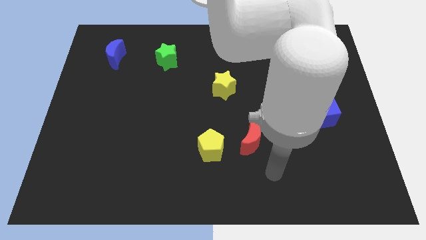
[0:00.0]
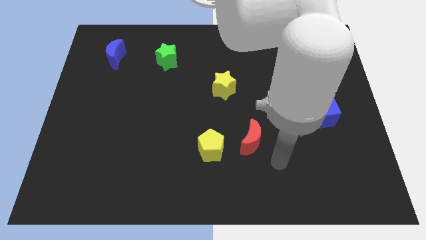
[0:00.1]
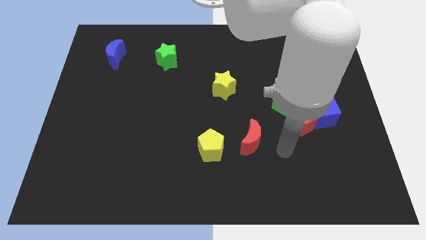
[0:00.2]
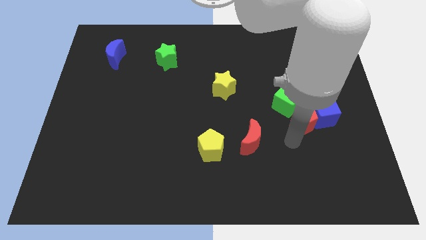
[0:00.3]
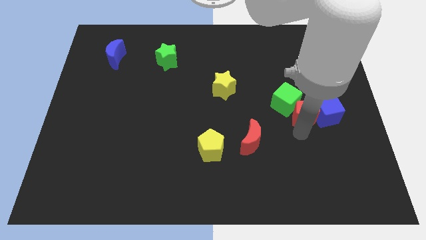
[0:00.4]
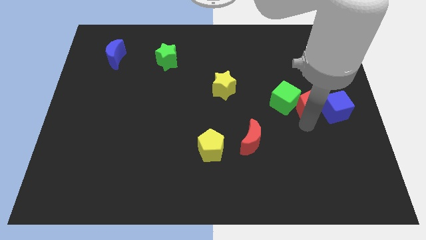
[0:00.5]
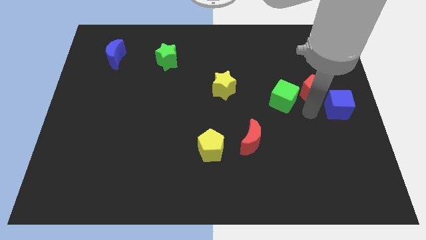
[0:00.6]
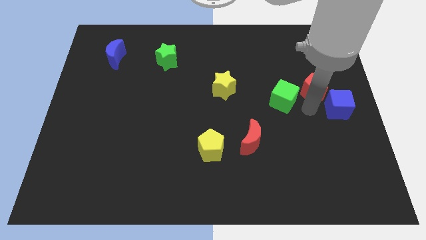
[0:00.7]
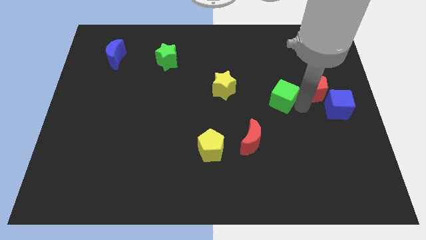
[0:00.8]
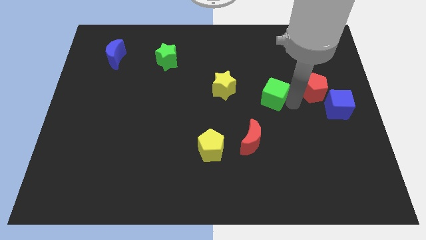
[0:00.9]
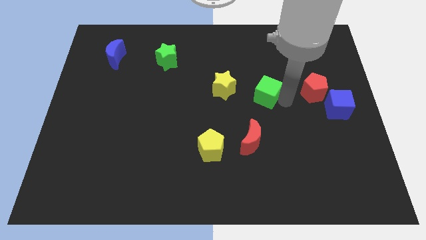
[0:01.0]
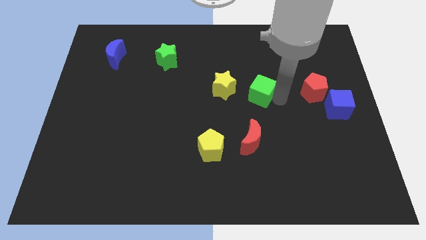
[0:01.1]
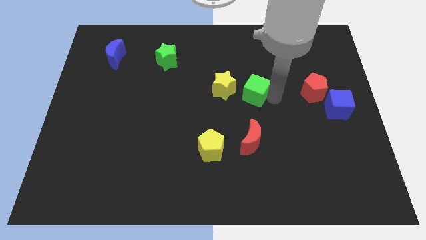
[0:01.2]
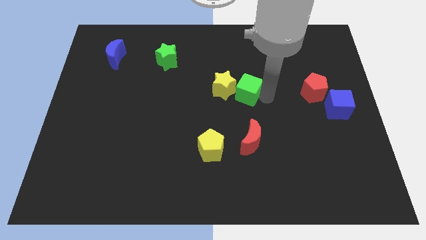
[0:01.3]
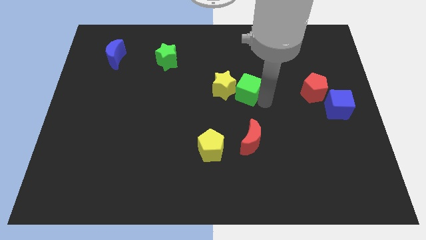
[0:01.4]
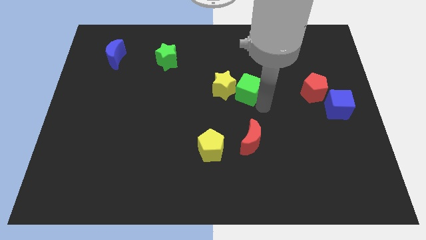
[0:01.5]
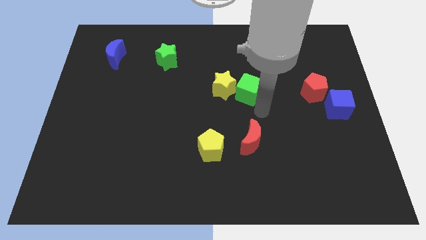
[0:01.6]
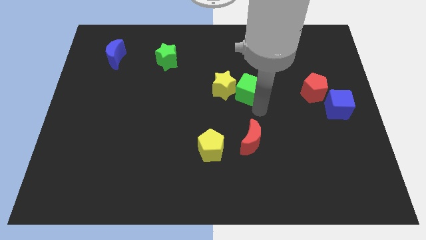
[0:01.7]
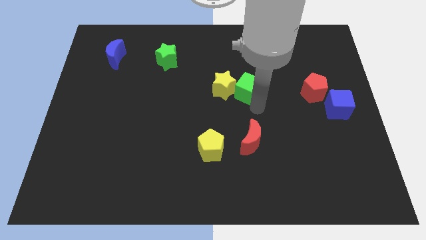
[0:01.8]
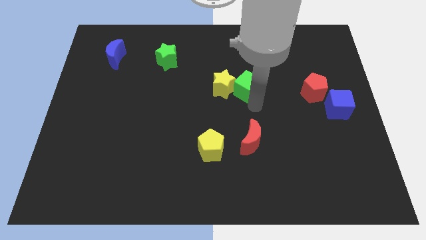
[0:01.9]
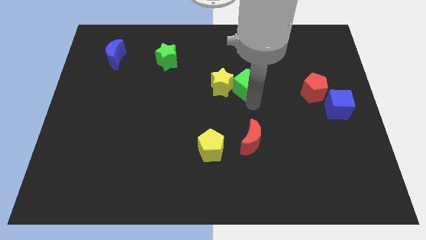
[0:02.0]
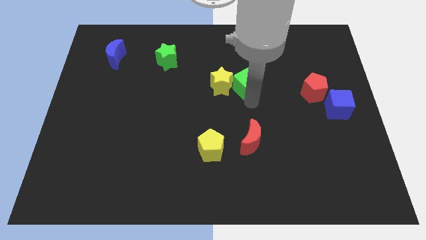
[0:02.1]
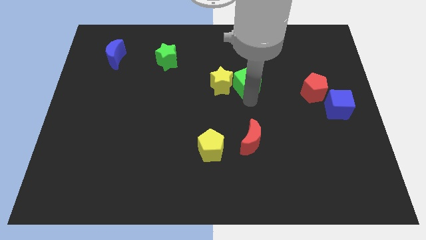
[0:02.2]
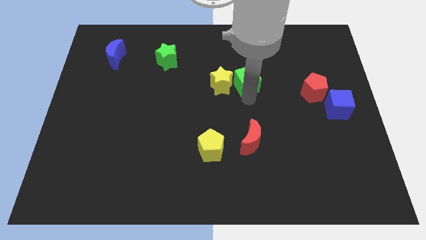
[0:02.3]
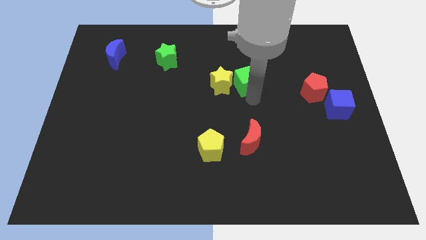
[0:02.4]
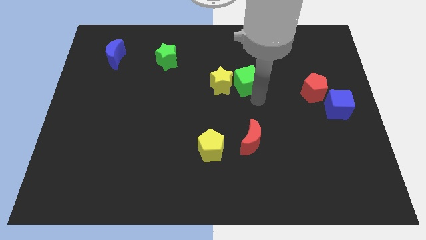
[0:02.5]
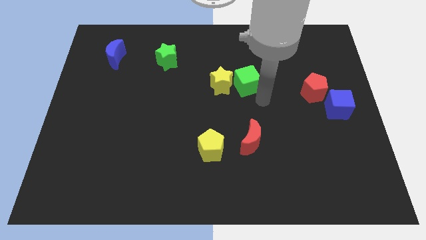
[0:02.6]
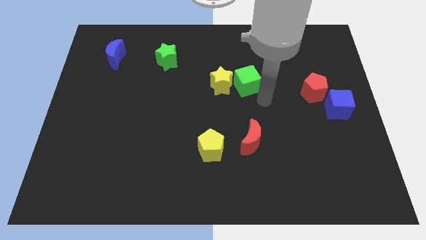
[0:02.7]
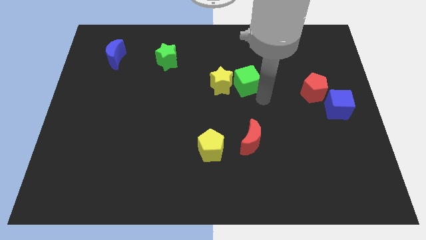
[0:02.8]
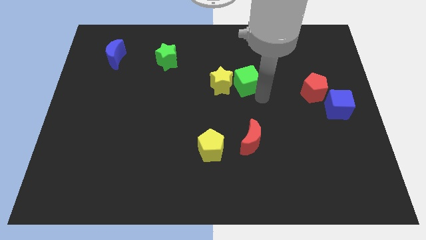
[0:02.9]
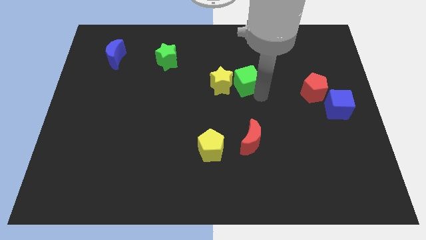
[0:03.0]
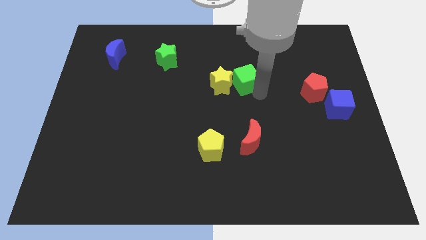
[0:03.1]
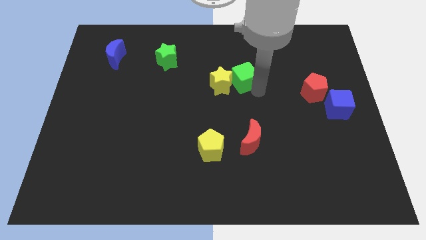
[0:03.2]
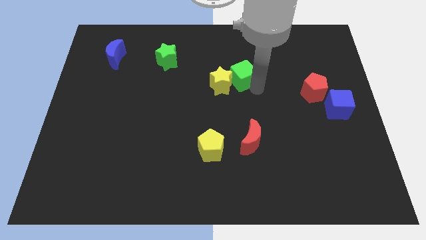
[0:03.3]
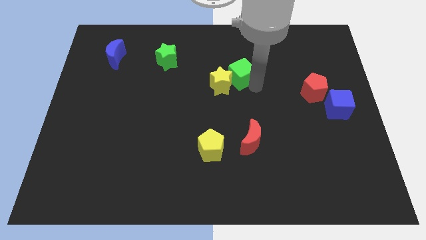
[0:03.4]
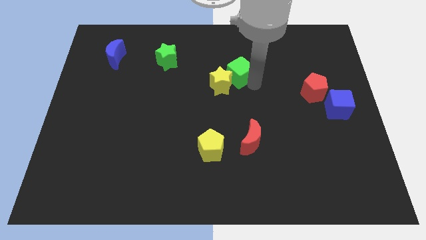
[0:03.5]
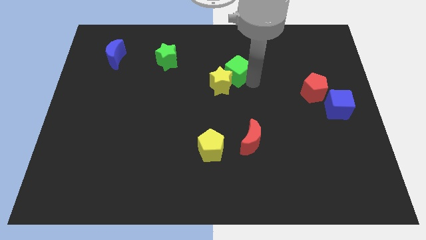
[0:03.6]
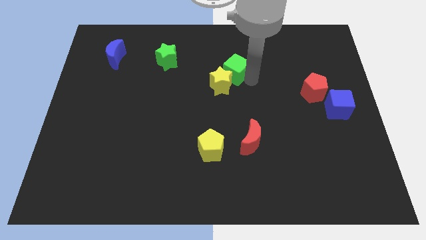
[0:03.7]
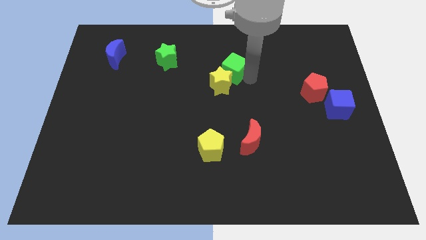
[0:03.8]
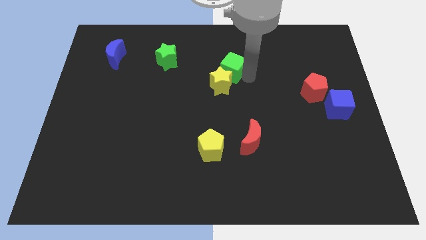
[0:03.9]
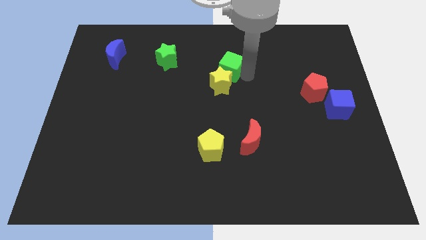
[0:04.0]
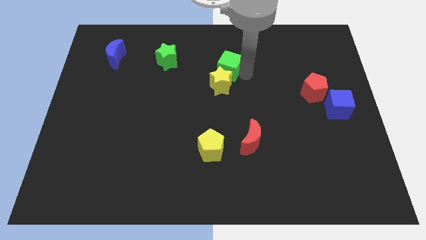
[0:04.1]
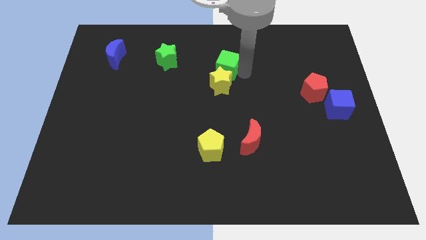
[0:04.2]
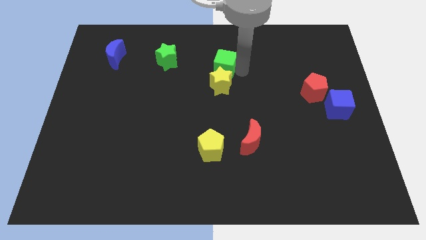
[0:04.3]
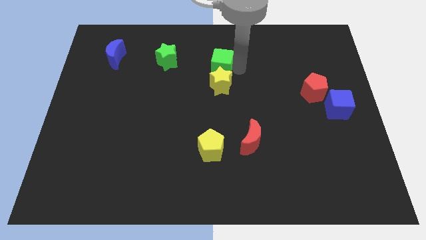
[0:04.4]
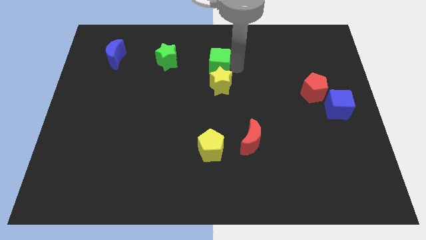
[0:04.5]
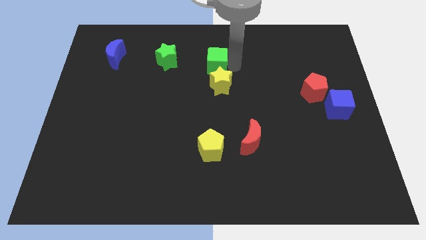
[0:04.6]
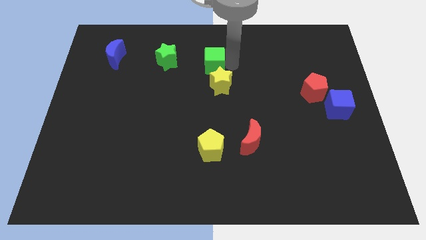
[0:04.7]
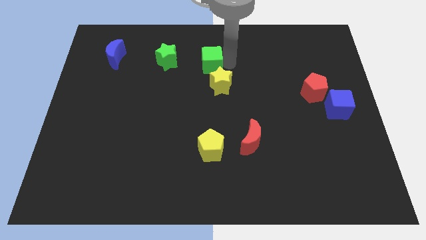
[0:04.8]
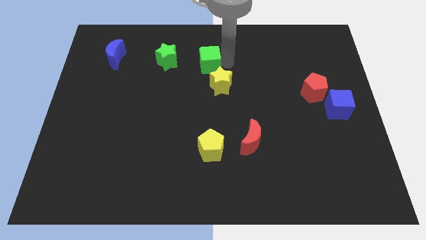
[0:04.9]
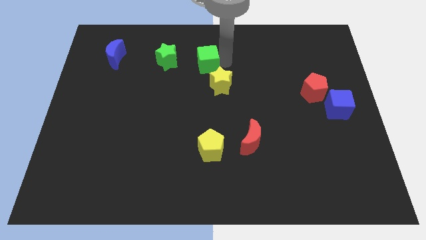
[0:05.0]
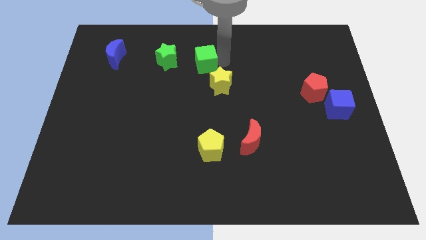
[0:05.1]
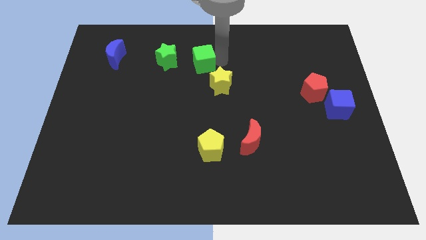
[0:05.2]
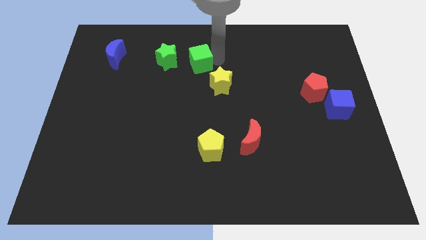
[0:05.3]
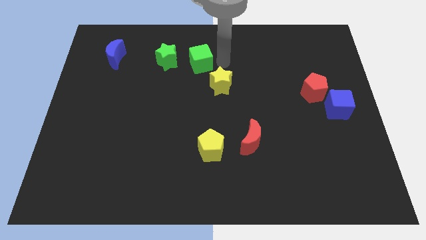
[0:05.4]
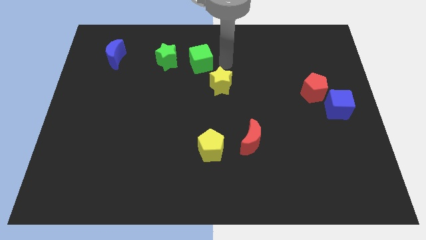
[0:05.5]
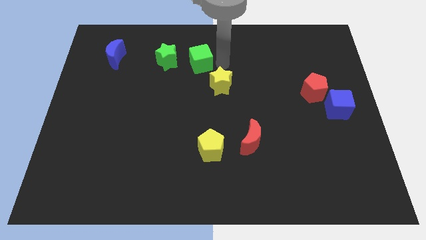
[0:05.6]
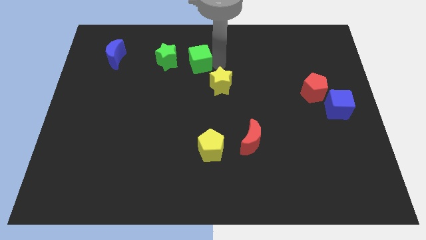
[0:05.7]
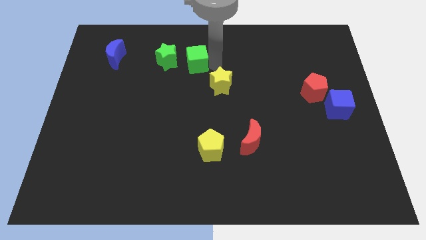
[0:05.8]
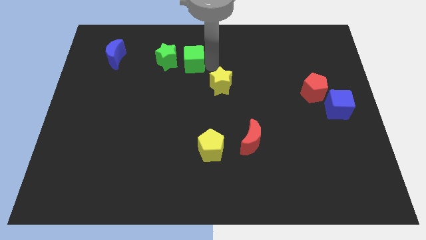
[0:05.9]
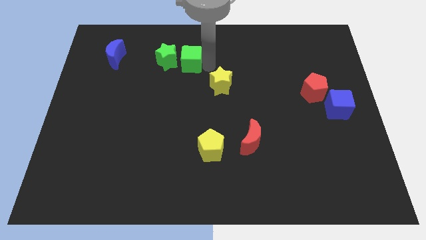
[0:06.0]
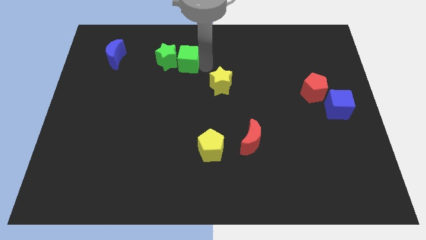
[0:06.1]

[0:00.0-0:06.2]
slide the green cube next to the green star

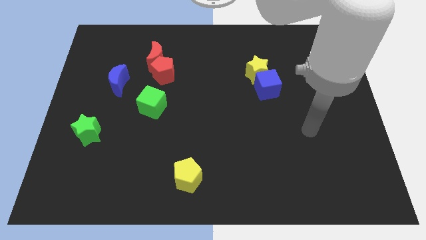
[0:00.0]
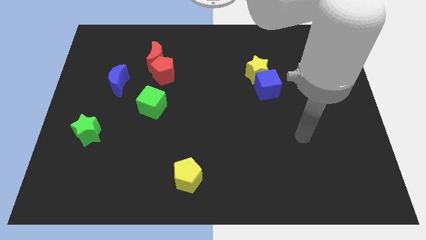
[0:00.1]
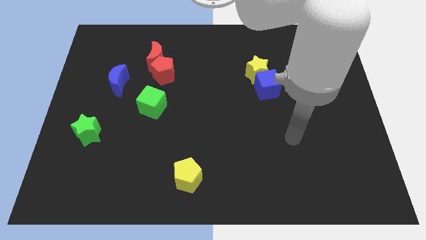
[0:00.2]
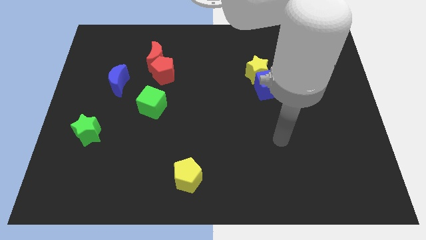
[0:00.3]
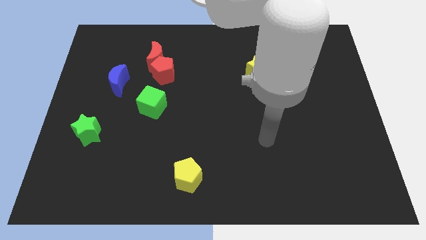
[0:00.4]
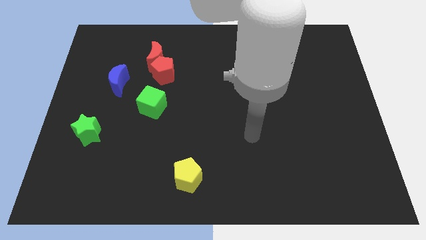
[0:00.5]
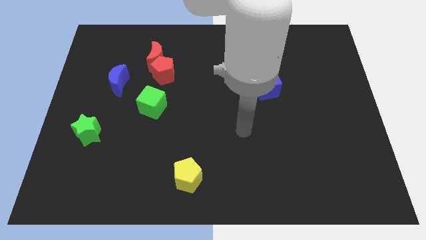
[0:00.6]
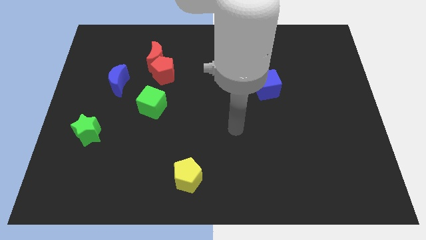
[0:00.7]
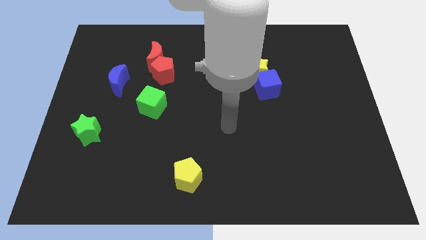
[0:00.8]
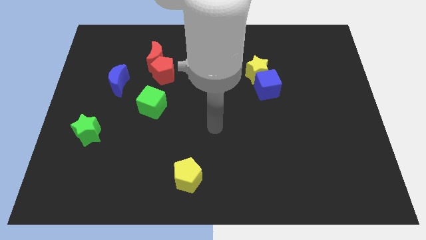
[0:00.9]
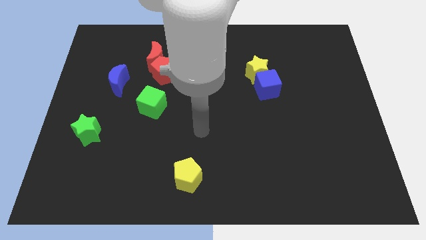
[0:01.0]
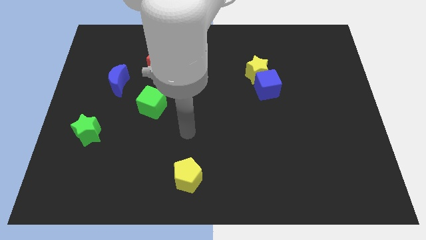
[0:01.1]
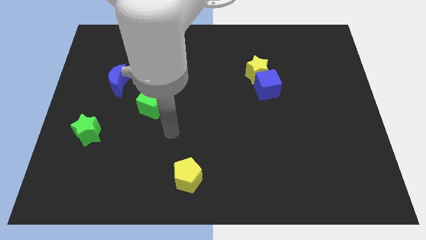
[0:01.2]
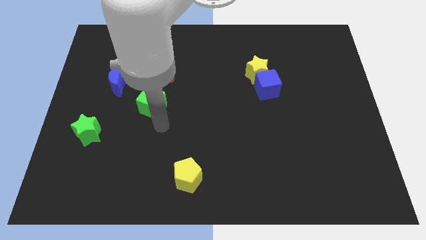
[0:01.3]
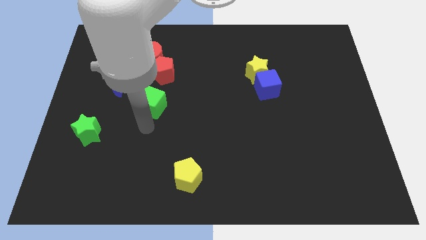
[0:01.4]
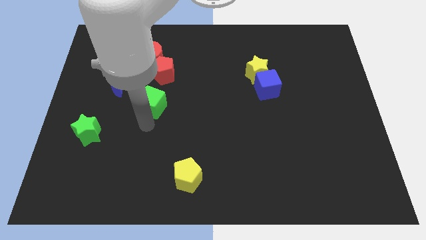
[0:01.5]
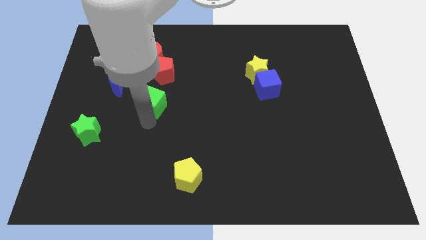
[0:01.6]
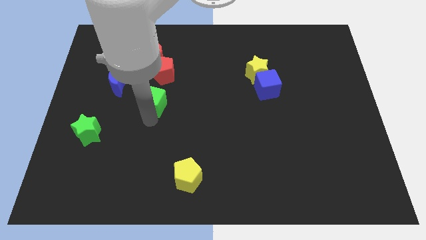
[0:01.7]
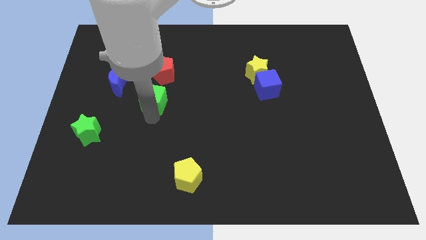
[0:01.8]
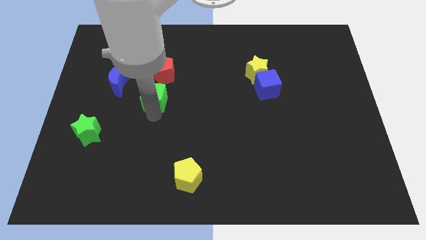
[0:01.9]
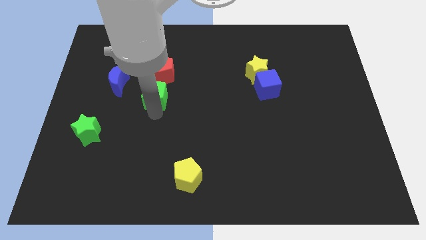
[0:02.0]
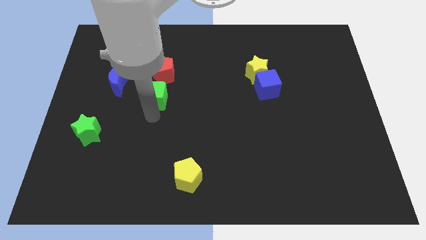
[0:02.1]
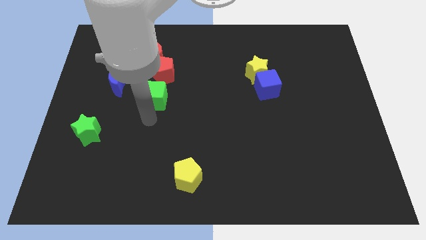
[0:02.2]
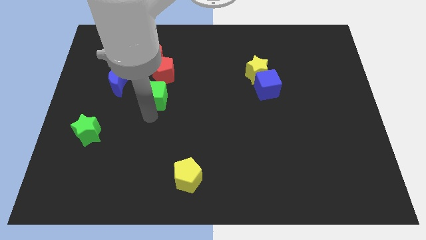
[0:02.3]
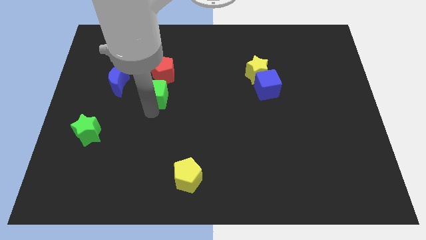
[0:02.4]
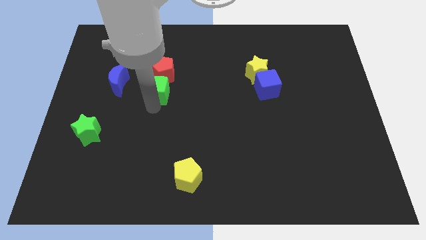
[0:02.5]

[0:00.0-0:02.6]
push the green cube next to the red pentagon
